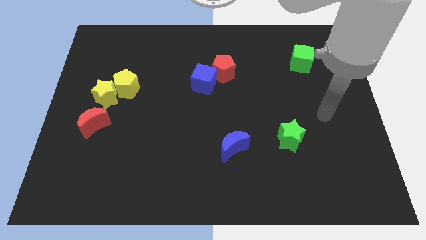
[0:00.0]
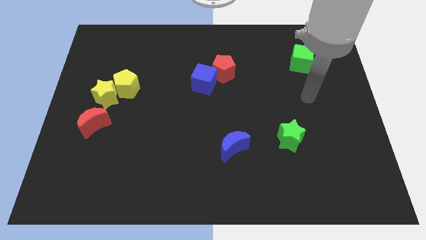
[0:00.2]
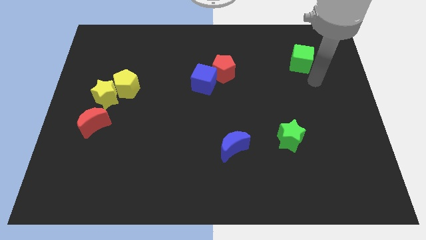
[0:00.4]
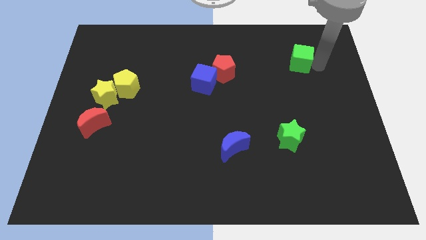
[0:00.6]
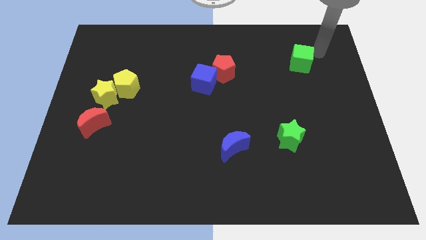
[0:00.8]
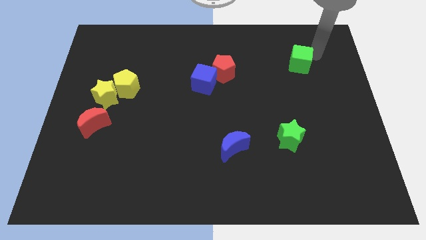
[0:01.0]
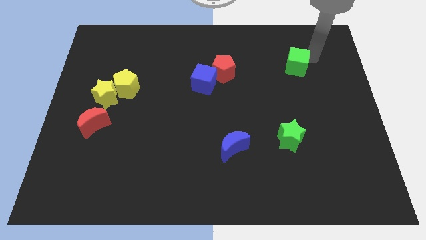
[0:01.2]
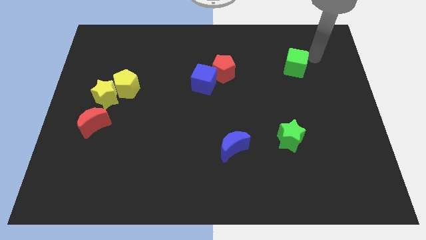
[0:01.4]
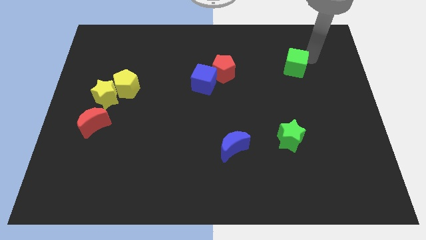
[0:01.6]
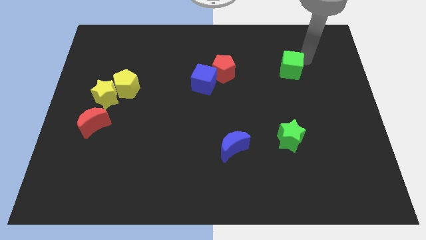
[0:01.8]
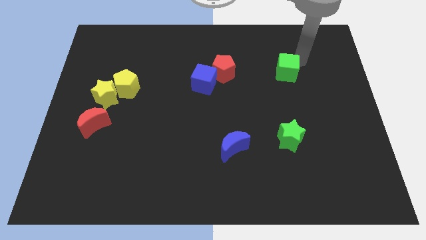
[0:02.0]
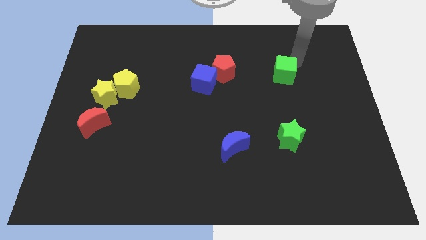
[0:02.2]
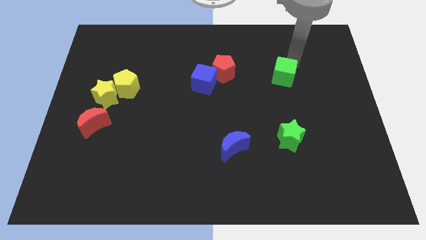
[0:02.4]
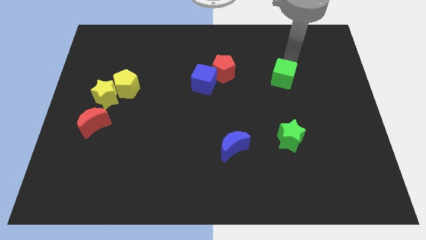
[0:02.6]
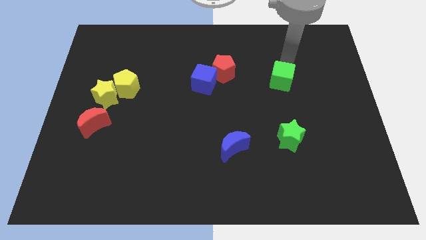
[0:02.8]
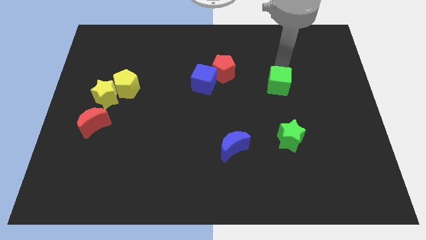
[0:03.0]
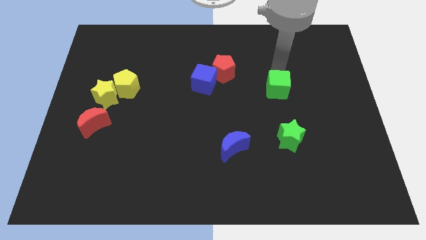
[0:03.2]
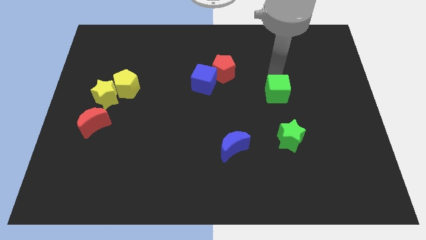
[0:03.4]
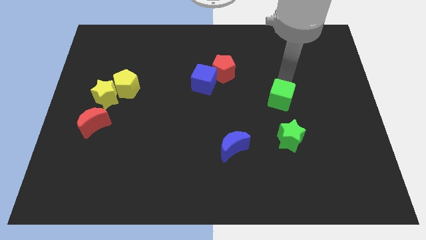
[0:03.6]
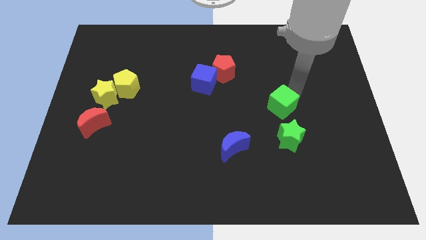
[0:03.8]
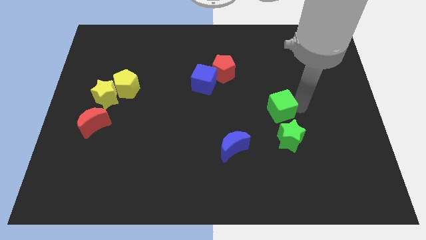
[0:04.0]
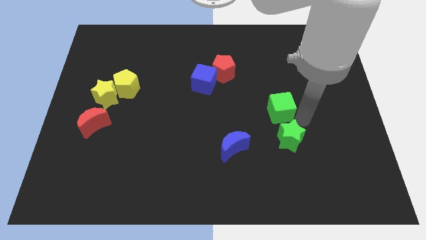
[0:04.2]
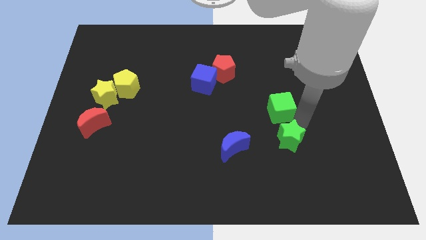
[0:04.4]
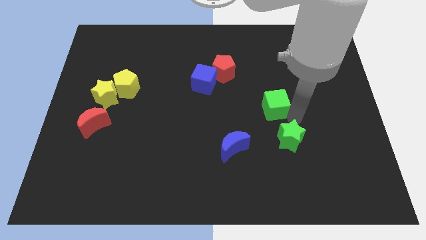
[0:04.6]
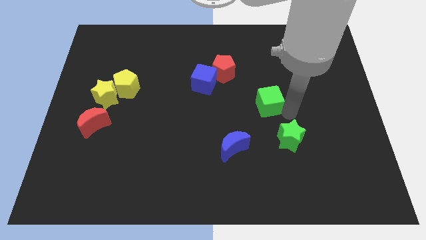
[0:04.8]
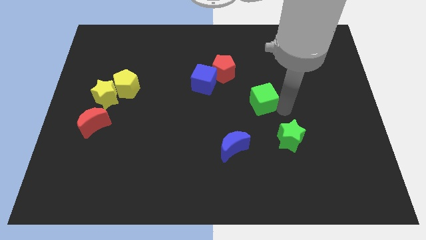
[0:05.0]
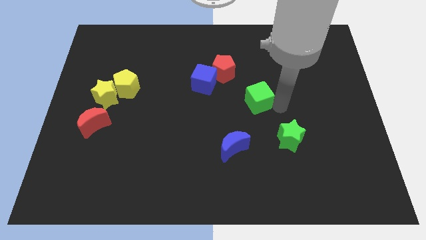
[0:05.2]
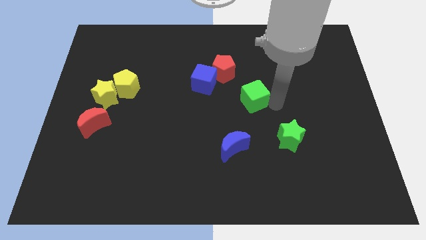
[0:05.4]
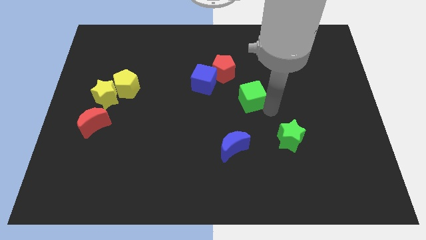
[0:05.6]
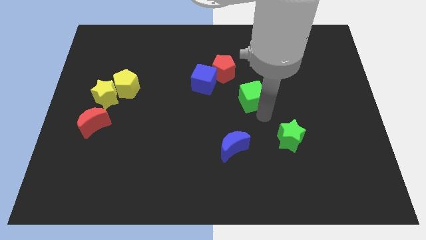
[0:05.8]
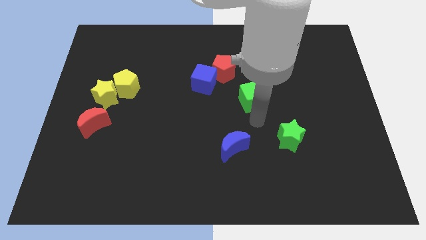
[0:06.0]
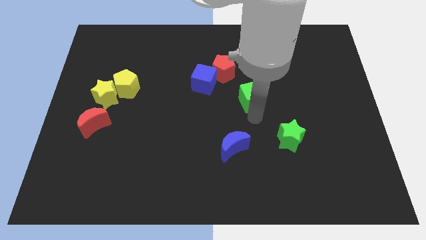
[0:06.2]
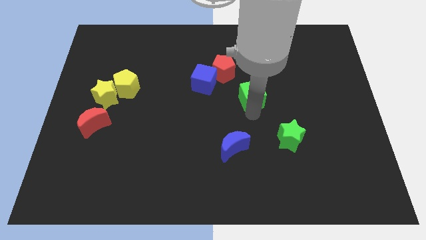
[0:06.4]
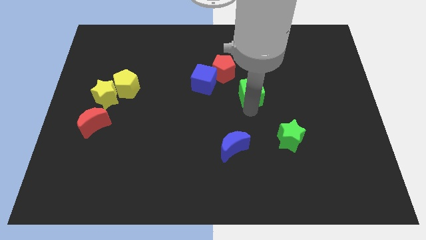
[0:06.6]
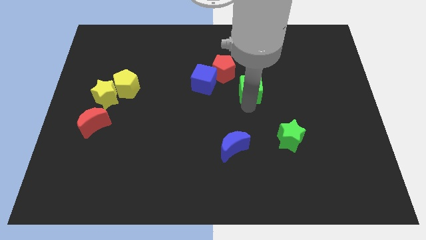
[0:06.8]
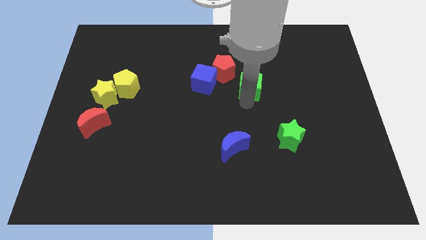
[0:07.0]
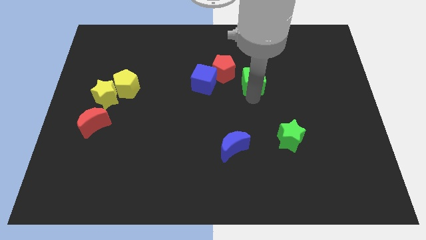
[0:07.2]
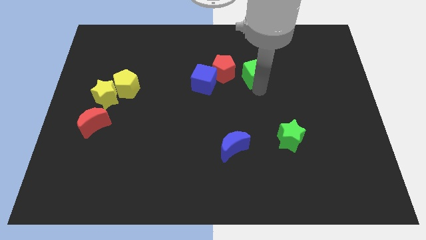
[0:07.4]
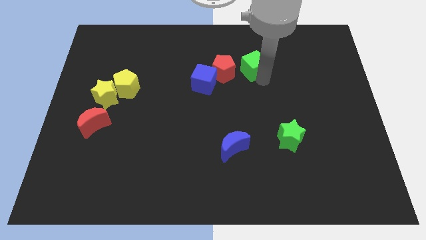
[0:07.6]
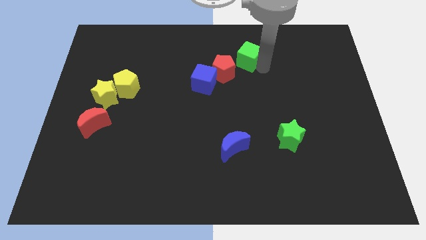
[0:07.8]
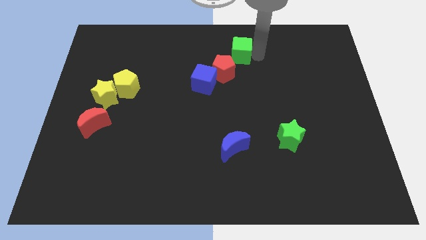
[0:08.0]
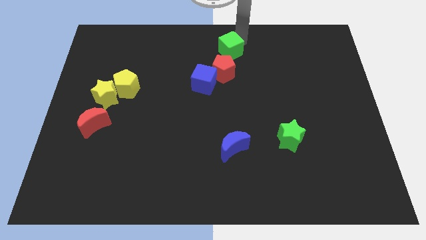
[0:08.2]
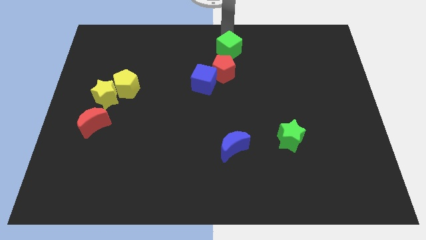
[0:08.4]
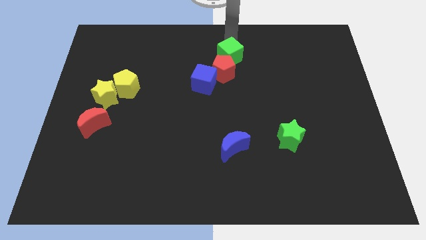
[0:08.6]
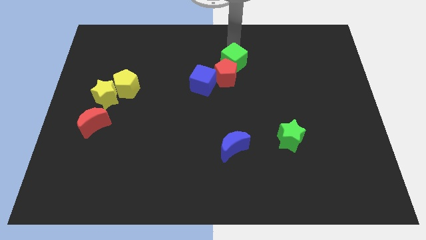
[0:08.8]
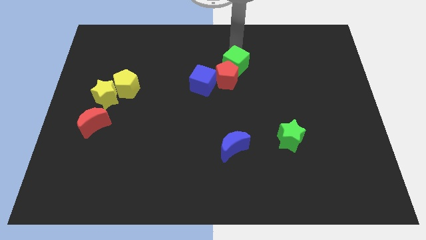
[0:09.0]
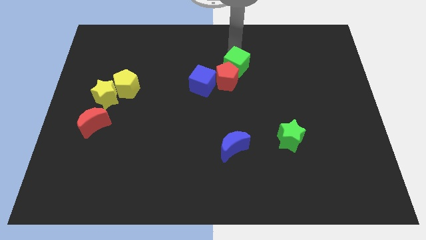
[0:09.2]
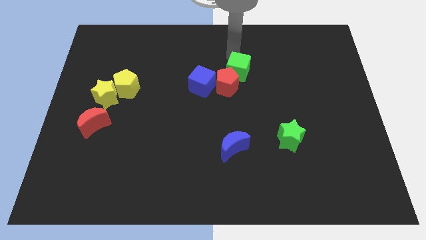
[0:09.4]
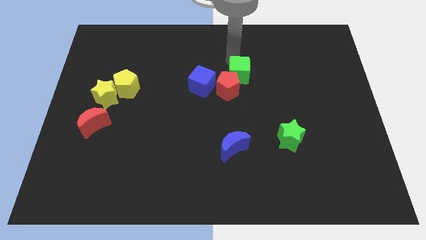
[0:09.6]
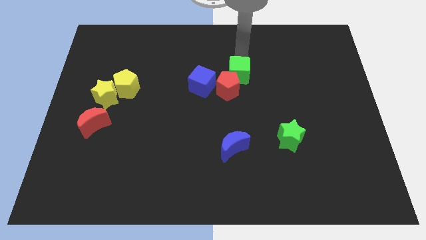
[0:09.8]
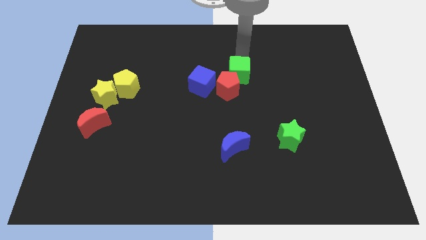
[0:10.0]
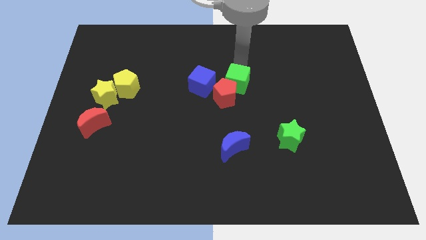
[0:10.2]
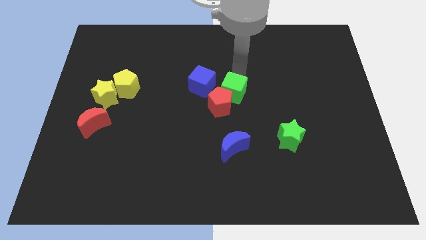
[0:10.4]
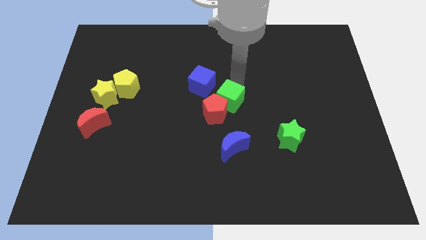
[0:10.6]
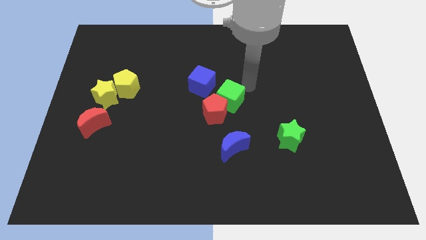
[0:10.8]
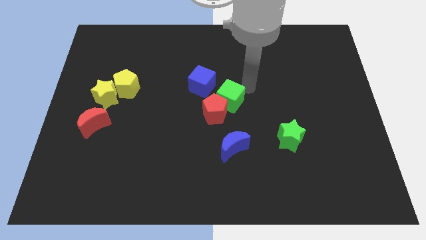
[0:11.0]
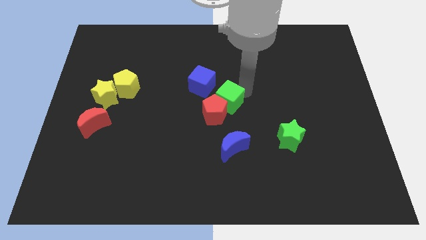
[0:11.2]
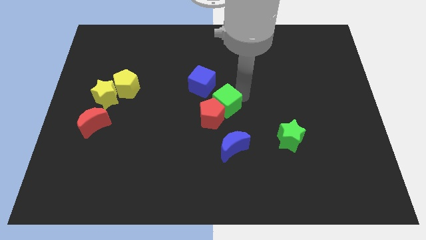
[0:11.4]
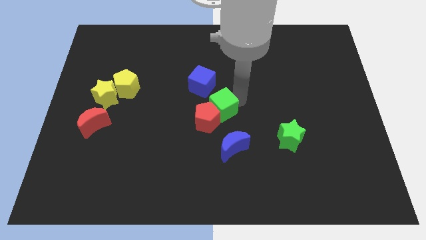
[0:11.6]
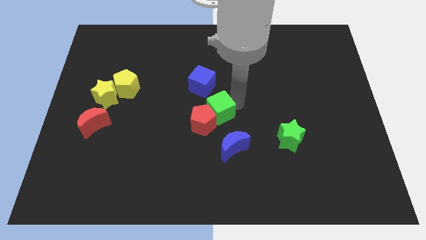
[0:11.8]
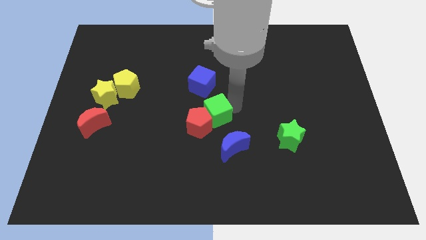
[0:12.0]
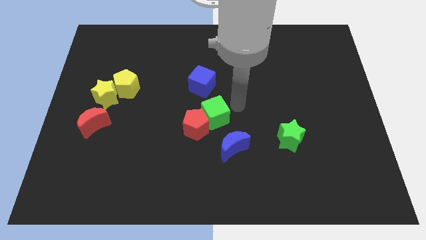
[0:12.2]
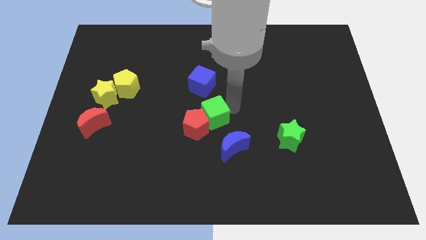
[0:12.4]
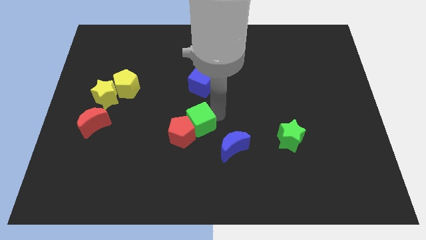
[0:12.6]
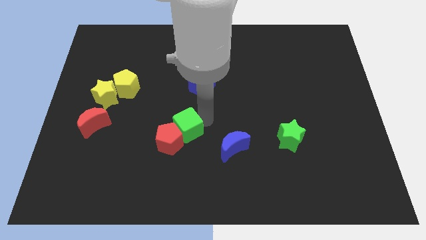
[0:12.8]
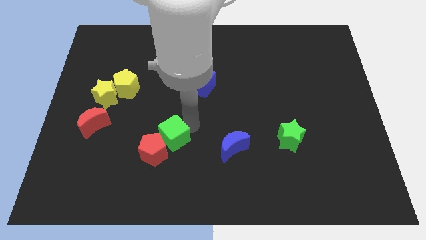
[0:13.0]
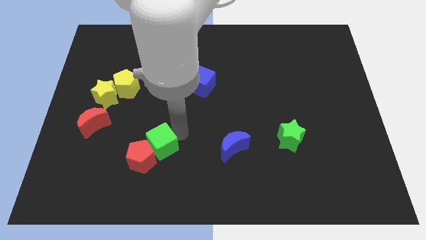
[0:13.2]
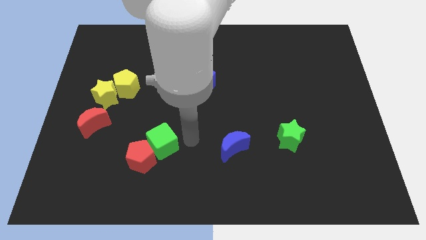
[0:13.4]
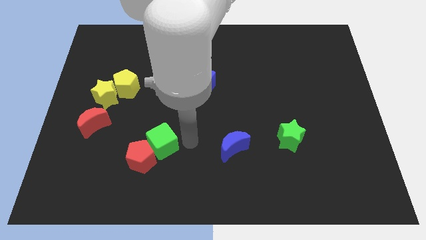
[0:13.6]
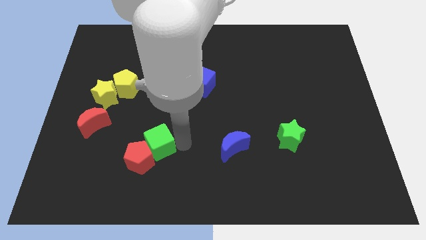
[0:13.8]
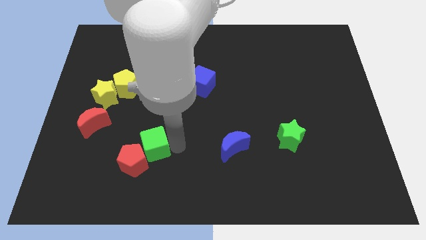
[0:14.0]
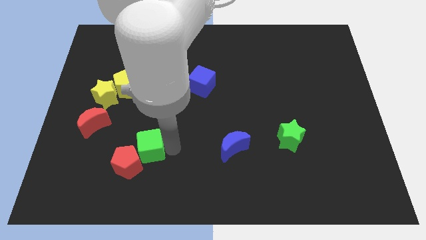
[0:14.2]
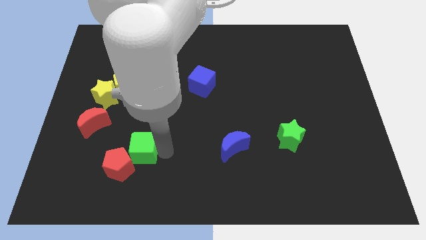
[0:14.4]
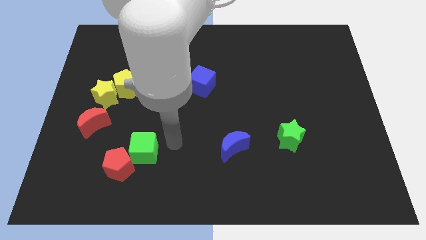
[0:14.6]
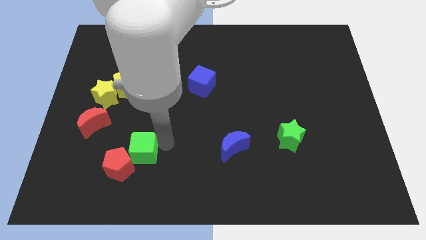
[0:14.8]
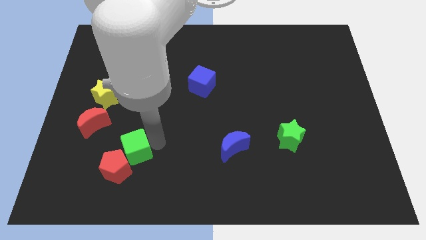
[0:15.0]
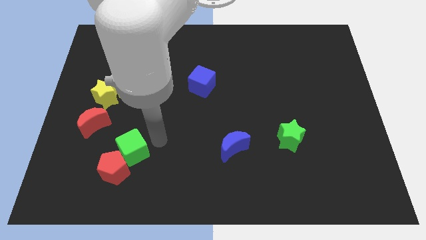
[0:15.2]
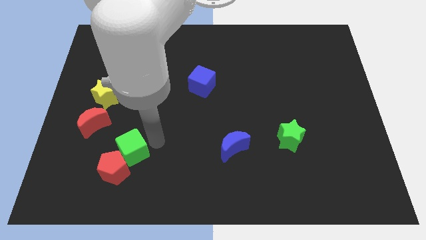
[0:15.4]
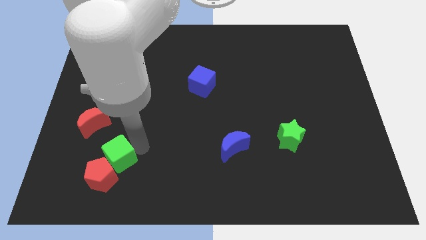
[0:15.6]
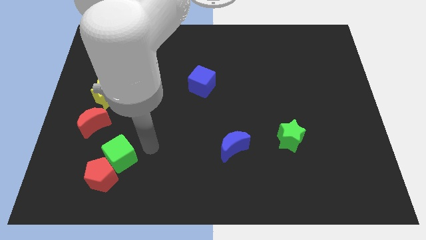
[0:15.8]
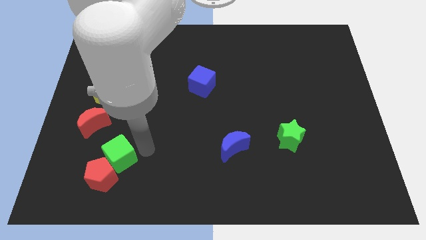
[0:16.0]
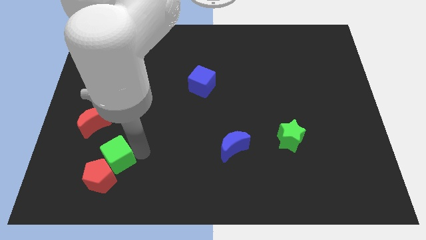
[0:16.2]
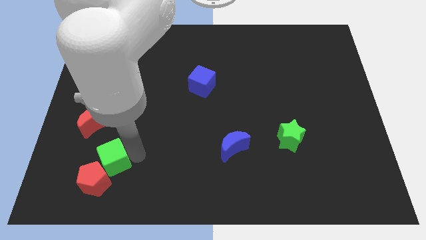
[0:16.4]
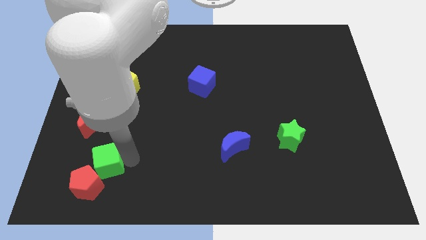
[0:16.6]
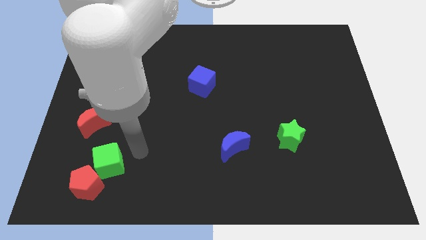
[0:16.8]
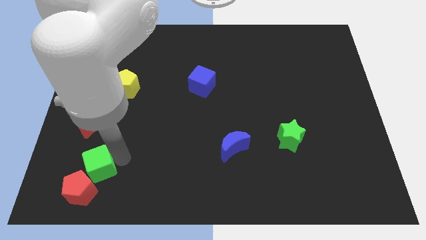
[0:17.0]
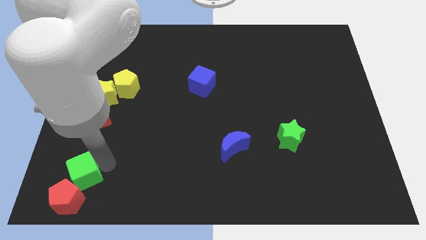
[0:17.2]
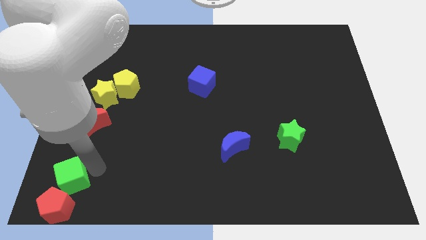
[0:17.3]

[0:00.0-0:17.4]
slide the green cube to the bottom left
